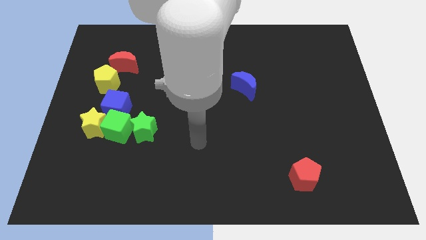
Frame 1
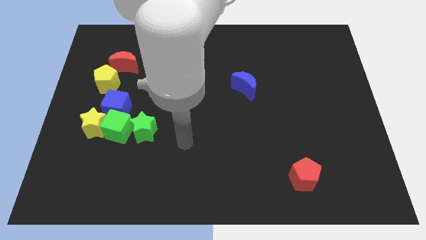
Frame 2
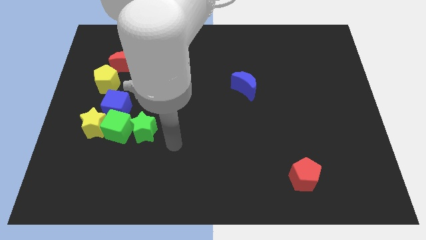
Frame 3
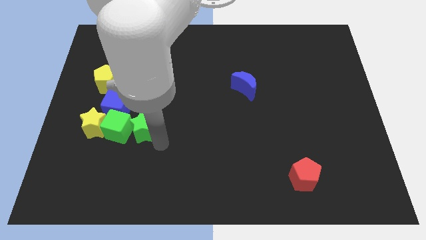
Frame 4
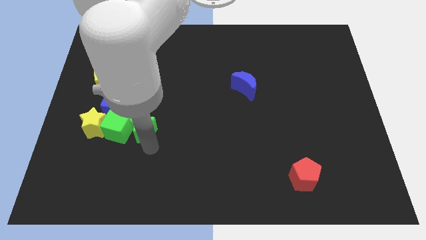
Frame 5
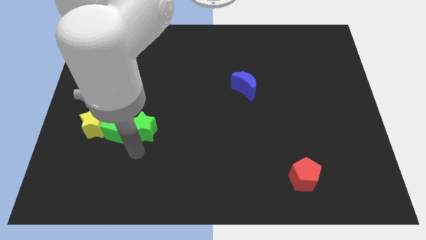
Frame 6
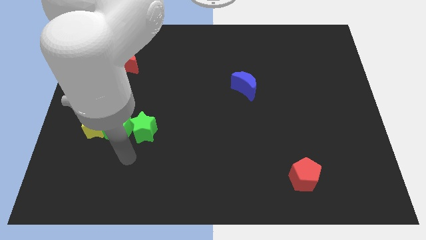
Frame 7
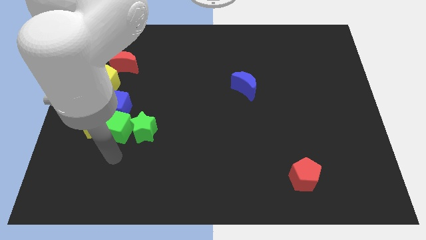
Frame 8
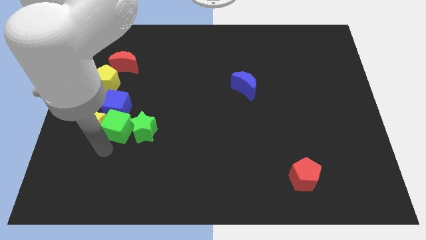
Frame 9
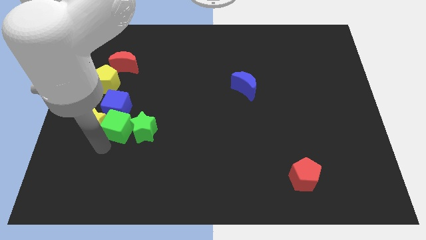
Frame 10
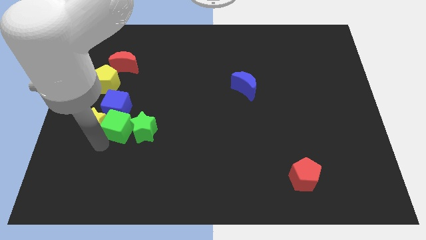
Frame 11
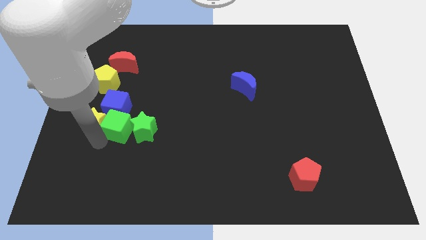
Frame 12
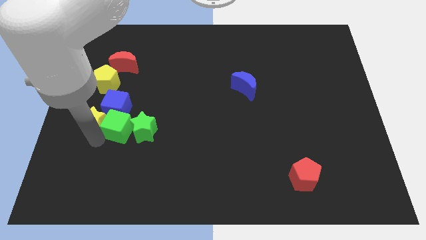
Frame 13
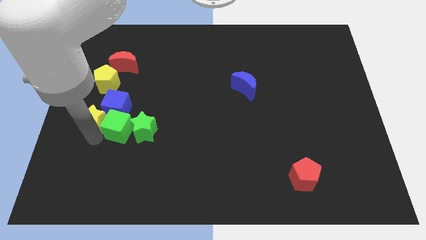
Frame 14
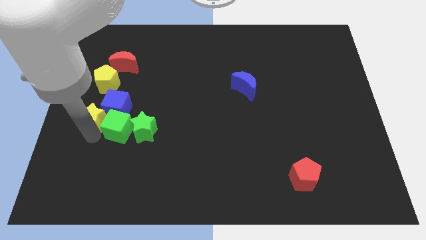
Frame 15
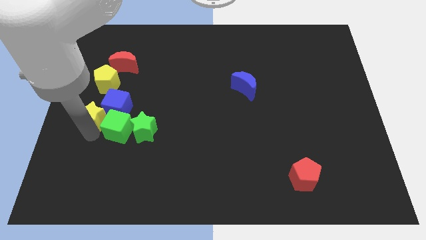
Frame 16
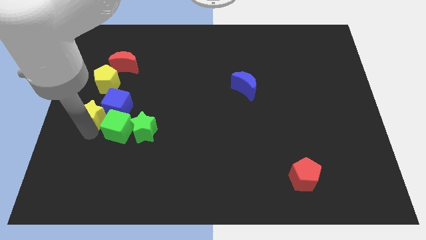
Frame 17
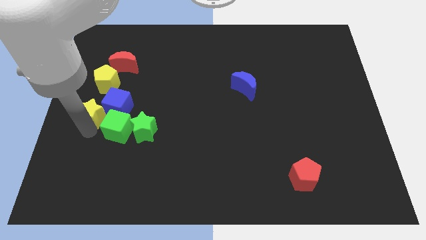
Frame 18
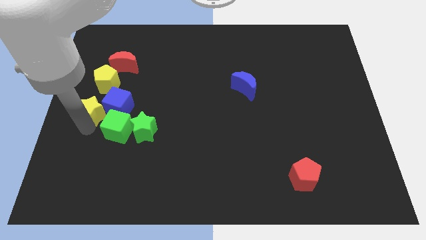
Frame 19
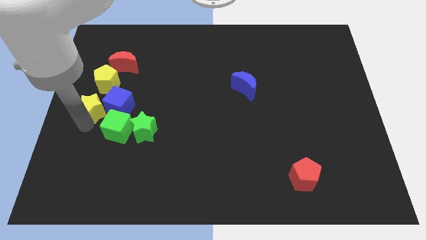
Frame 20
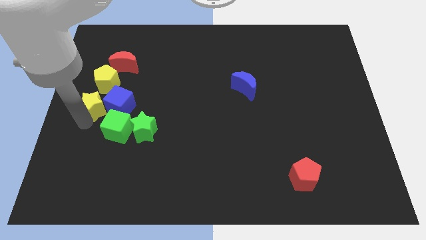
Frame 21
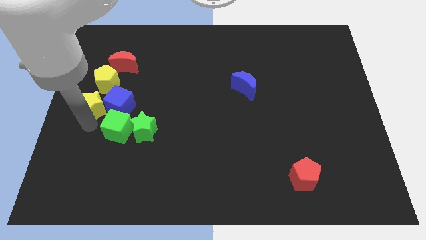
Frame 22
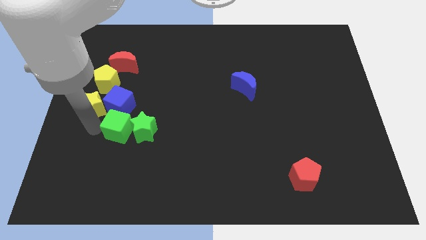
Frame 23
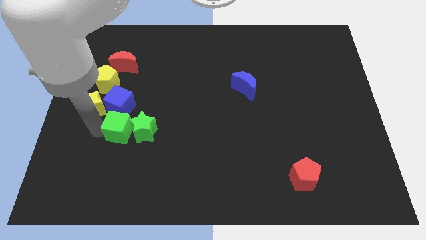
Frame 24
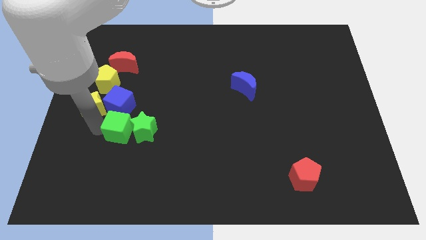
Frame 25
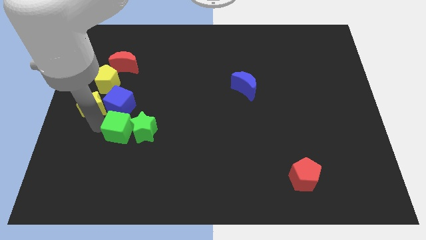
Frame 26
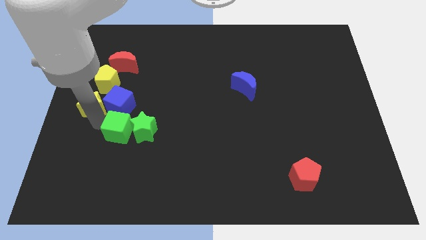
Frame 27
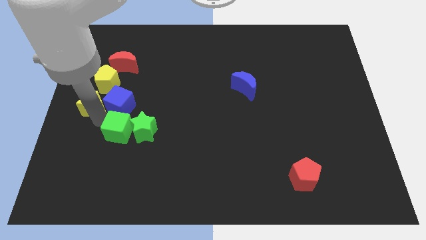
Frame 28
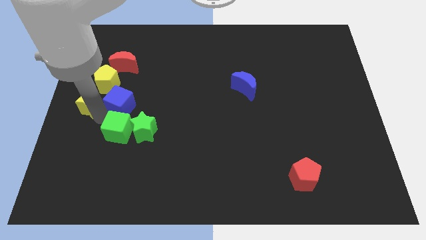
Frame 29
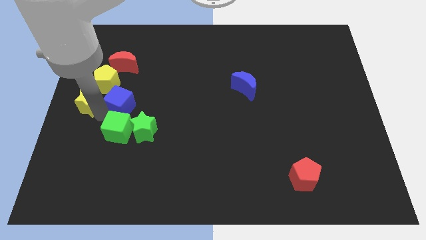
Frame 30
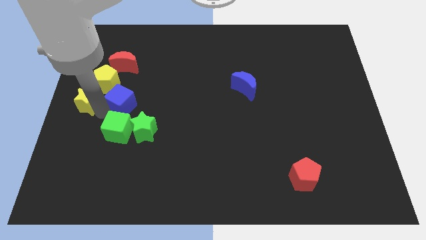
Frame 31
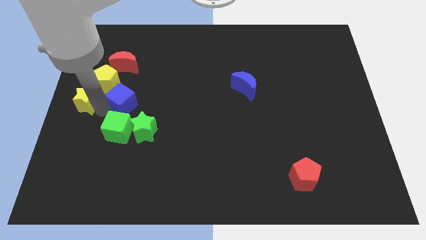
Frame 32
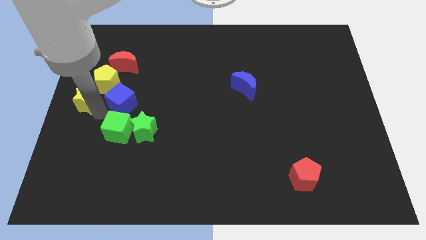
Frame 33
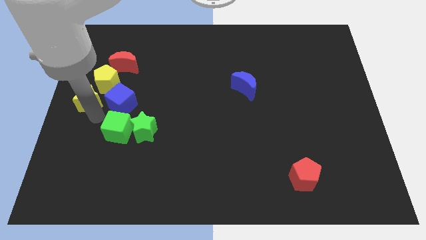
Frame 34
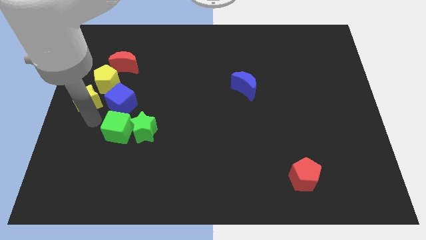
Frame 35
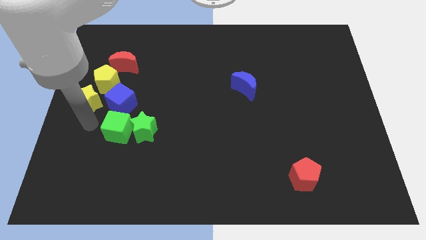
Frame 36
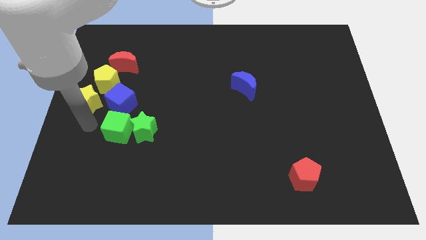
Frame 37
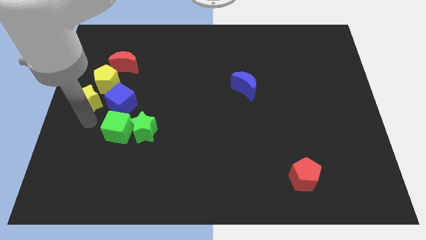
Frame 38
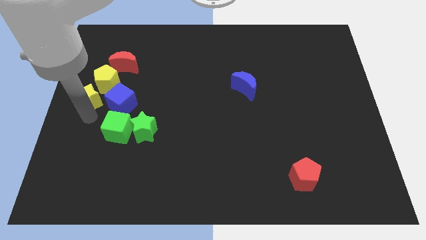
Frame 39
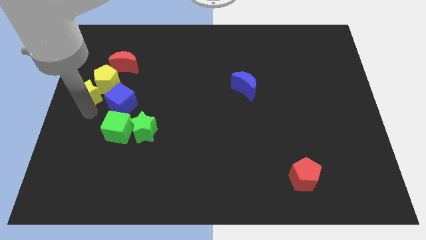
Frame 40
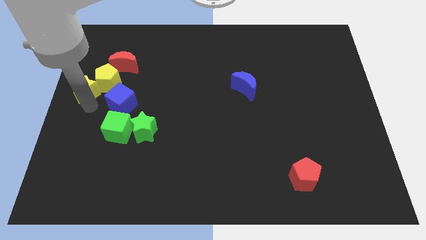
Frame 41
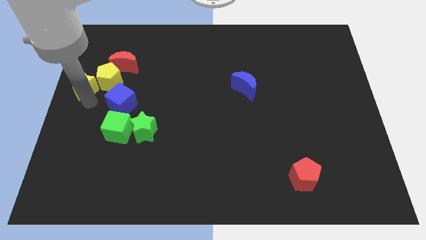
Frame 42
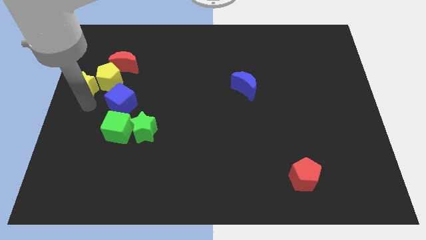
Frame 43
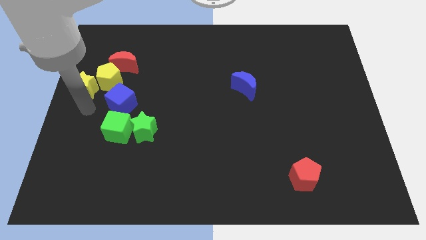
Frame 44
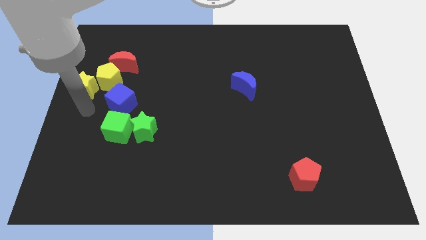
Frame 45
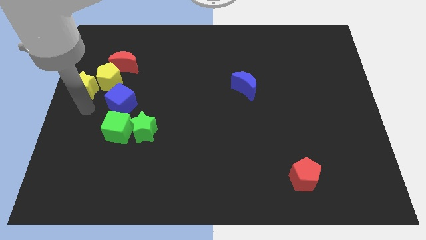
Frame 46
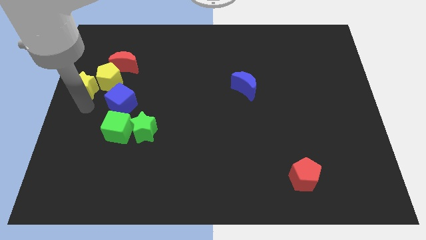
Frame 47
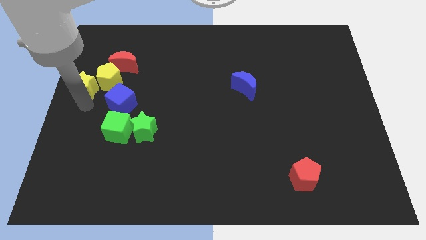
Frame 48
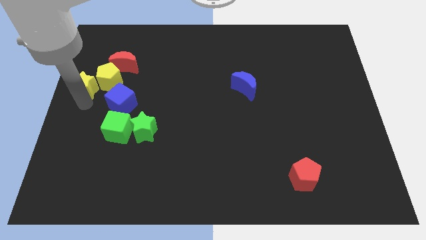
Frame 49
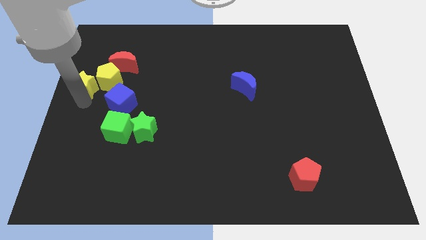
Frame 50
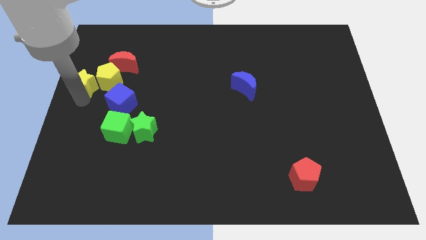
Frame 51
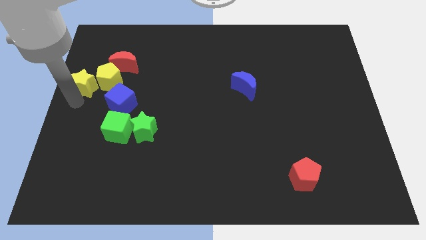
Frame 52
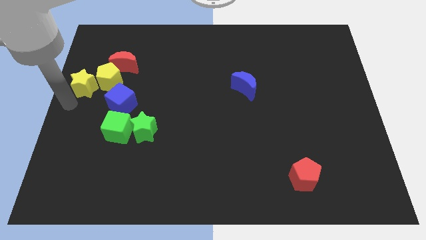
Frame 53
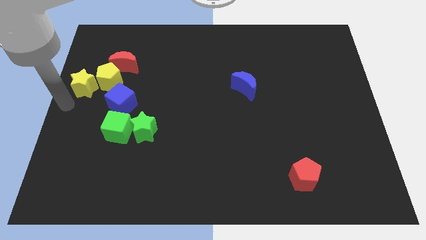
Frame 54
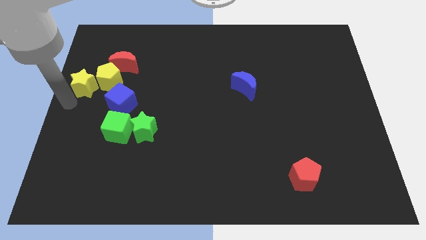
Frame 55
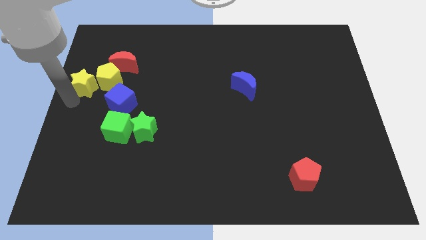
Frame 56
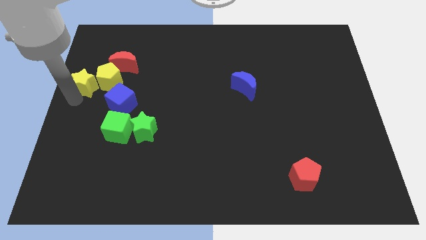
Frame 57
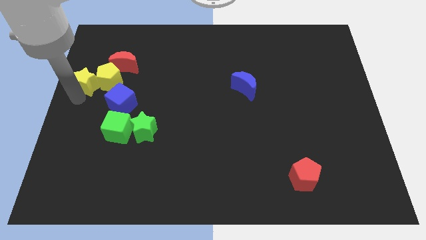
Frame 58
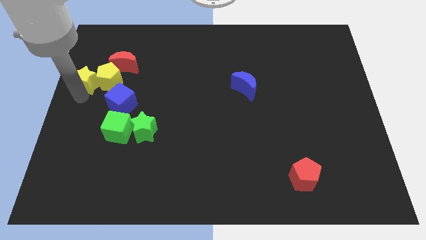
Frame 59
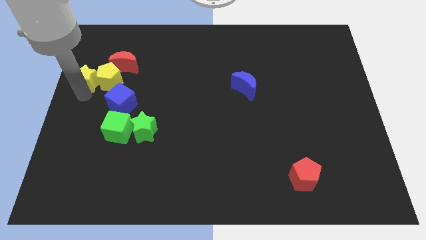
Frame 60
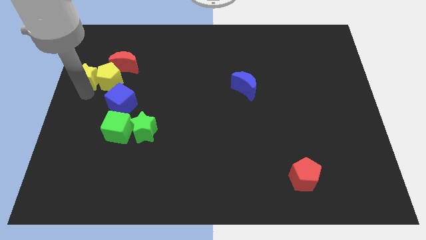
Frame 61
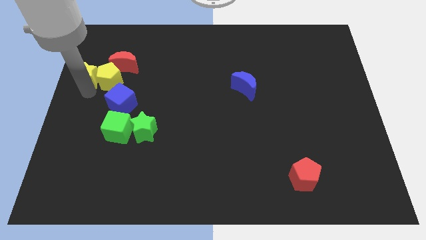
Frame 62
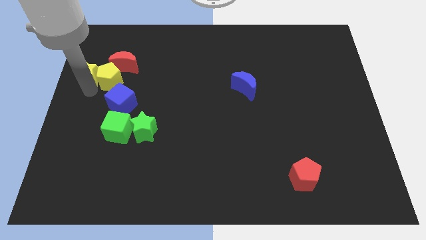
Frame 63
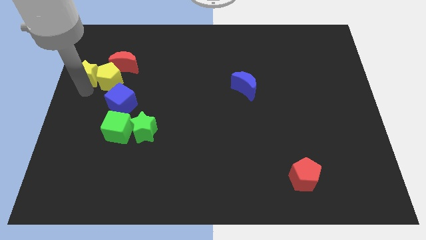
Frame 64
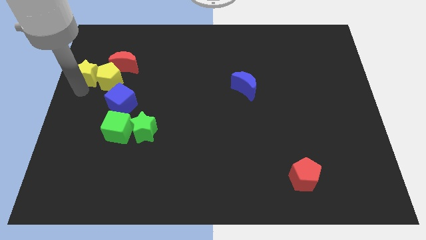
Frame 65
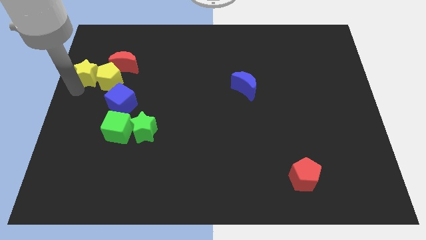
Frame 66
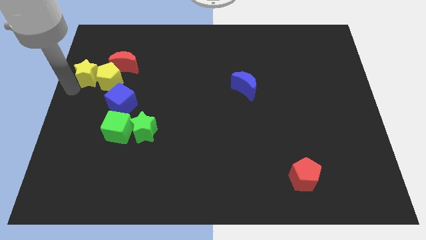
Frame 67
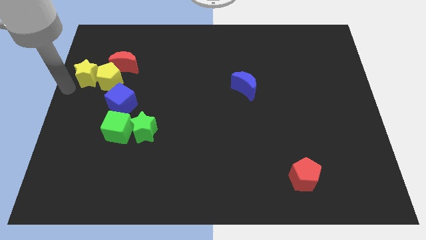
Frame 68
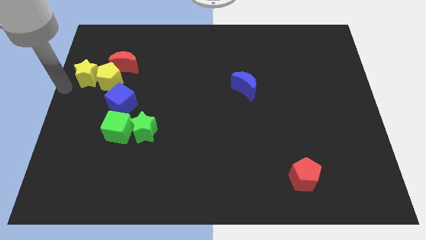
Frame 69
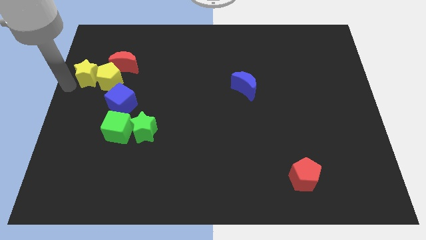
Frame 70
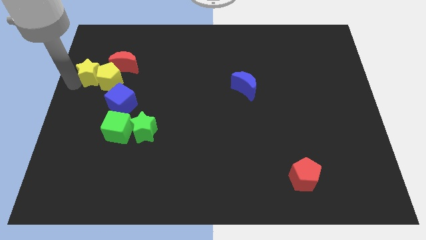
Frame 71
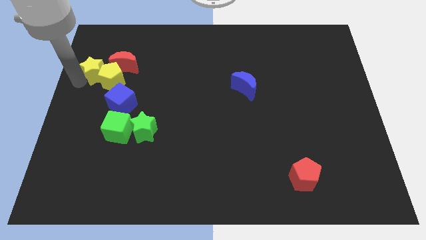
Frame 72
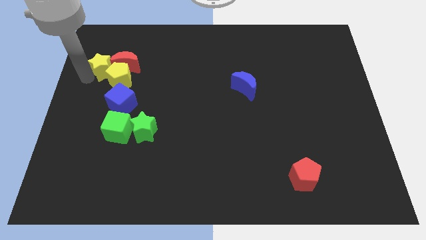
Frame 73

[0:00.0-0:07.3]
move the yellow star towards the red moon
